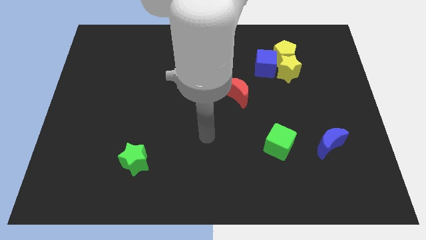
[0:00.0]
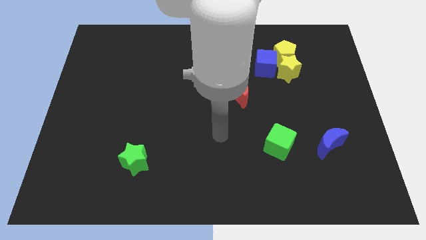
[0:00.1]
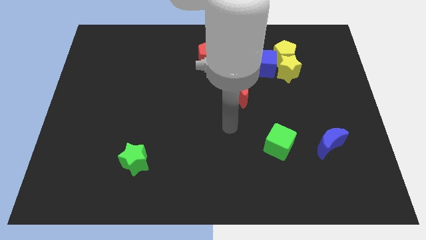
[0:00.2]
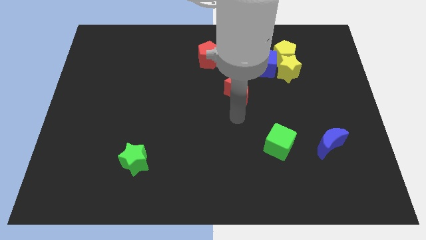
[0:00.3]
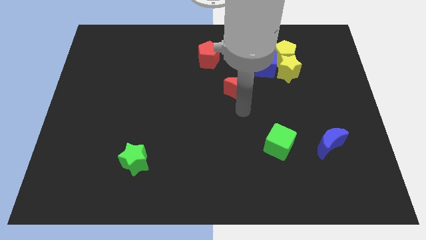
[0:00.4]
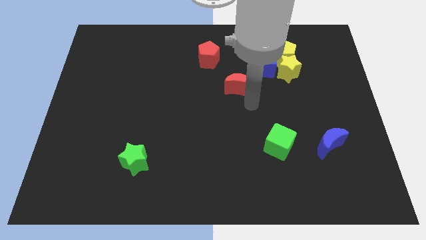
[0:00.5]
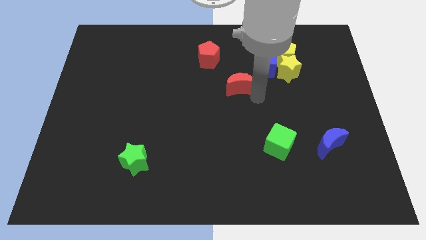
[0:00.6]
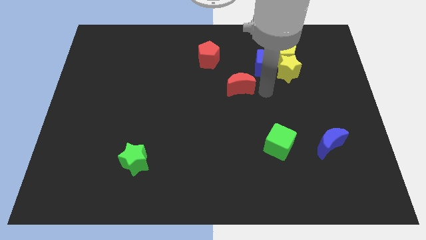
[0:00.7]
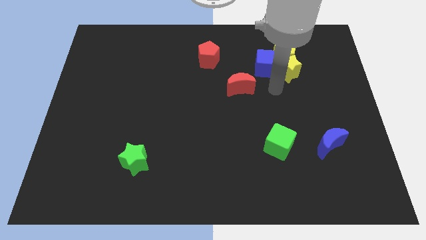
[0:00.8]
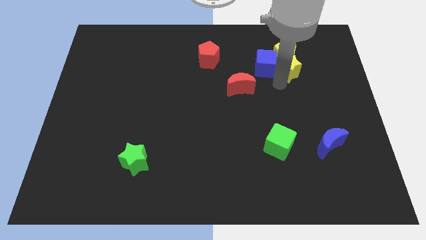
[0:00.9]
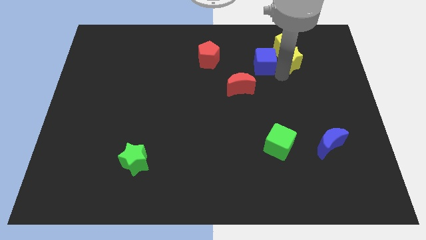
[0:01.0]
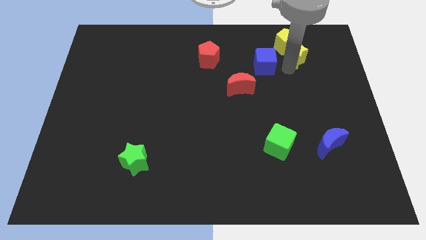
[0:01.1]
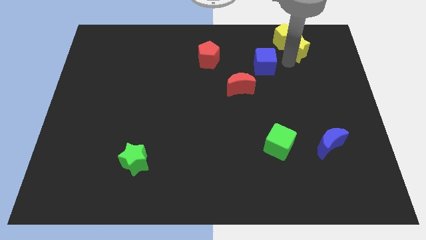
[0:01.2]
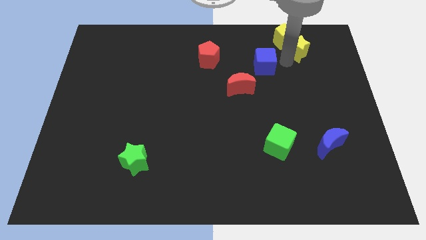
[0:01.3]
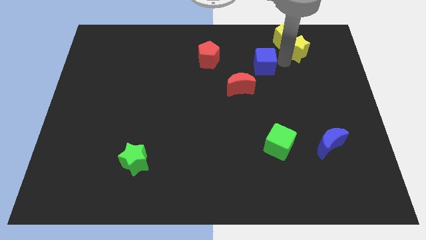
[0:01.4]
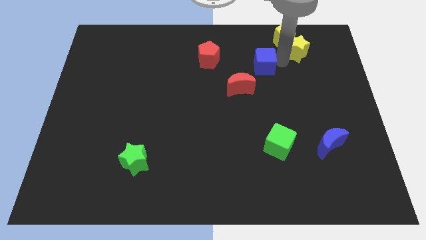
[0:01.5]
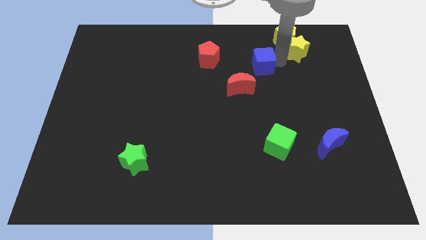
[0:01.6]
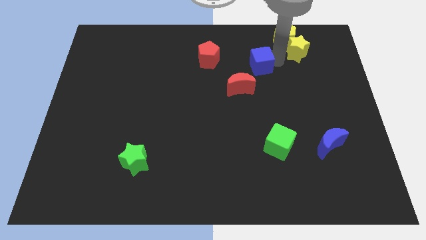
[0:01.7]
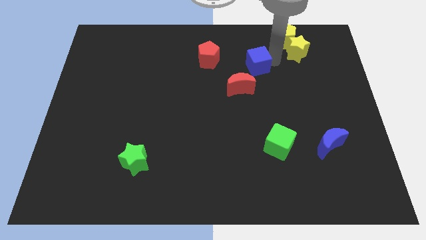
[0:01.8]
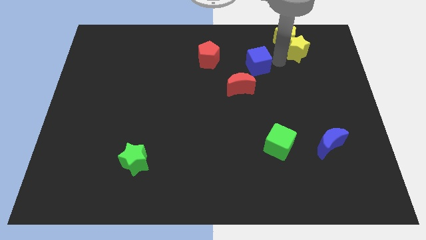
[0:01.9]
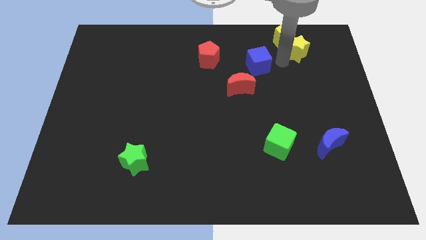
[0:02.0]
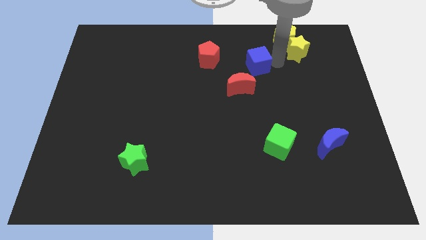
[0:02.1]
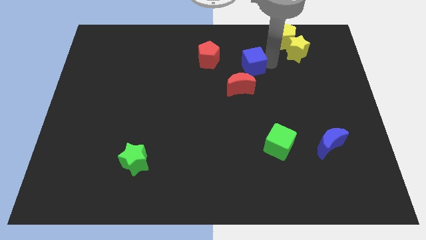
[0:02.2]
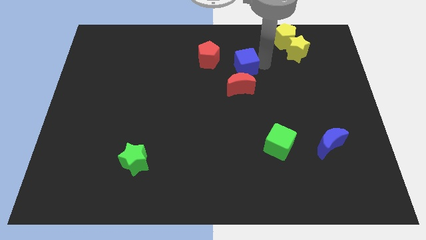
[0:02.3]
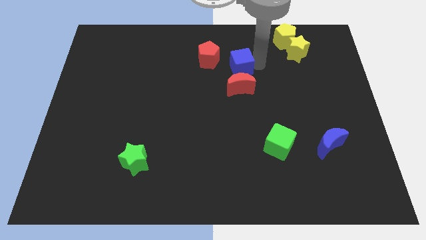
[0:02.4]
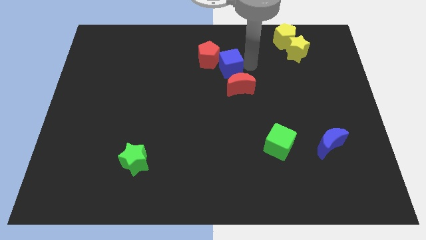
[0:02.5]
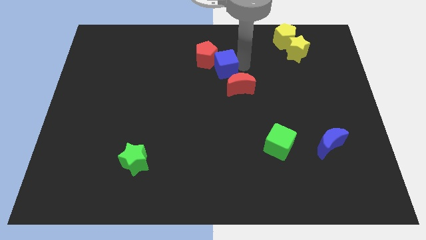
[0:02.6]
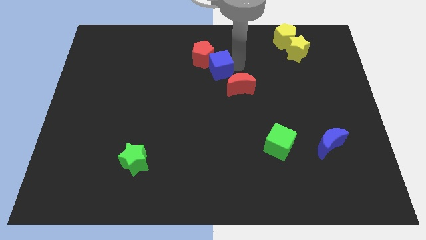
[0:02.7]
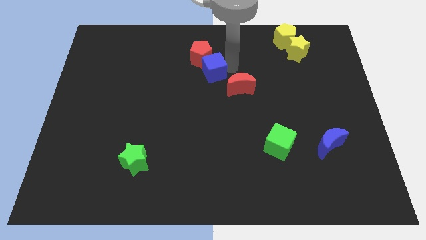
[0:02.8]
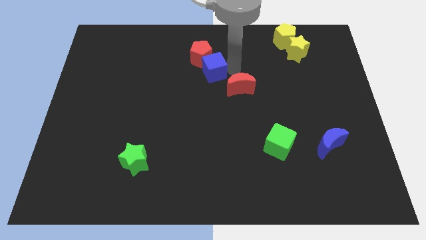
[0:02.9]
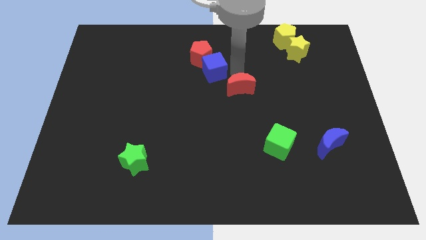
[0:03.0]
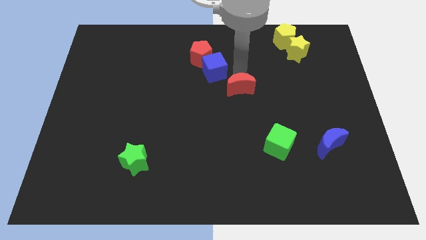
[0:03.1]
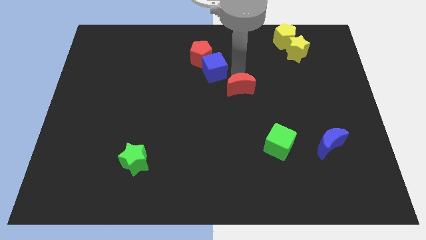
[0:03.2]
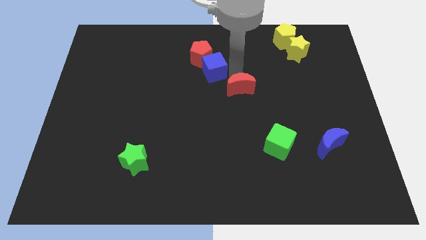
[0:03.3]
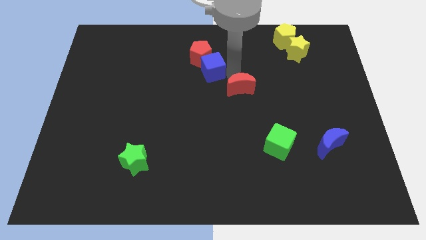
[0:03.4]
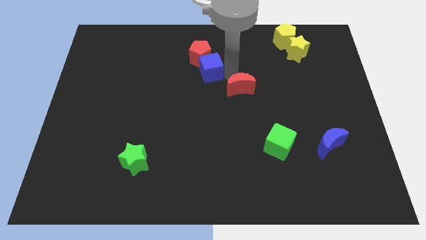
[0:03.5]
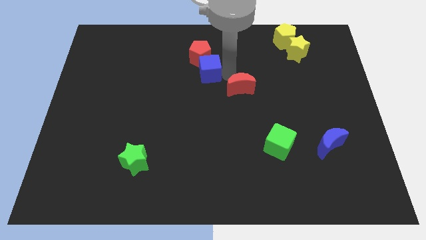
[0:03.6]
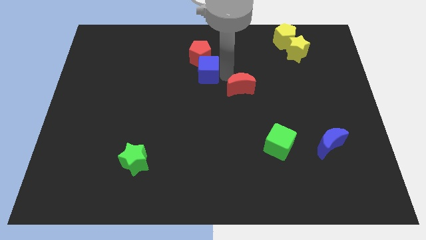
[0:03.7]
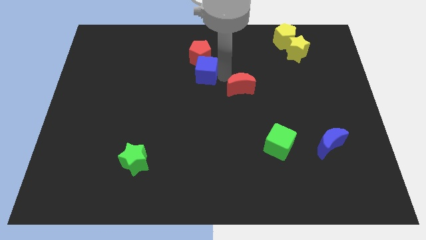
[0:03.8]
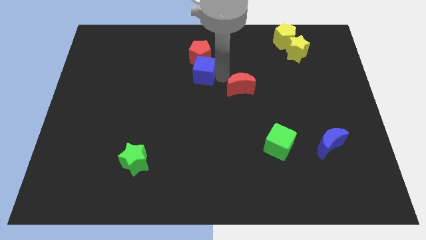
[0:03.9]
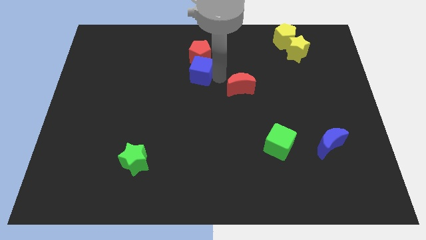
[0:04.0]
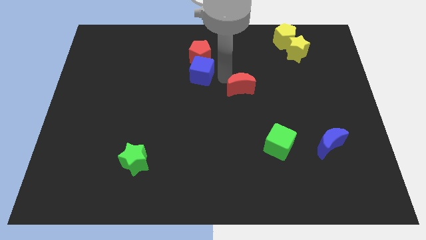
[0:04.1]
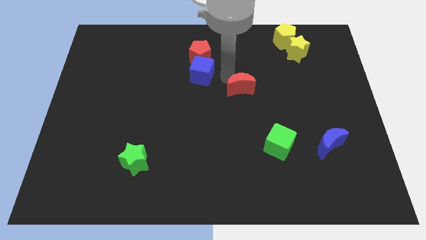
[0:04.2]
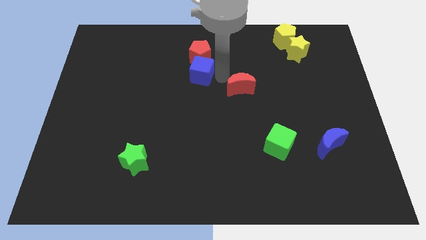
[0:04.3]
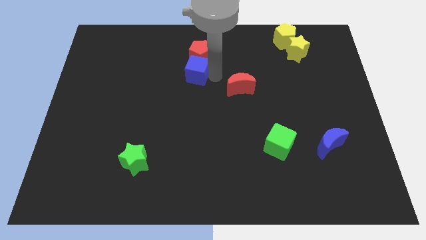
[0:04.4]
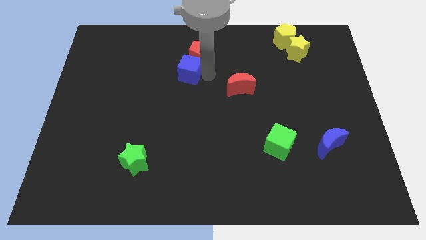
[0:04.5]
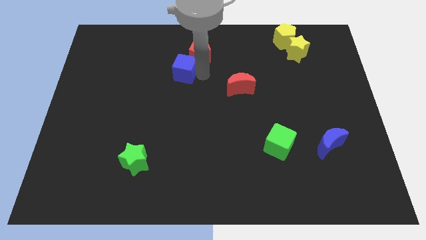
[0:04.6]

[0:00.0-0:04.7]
push the blue cube left

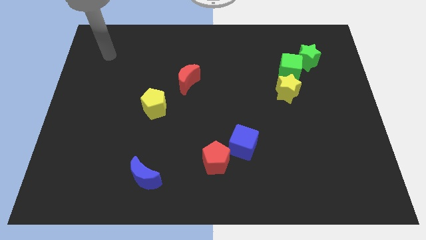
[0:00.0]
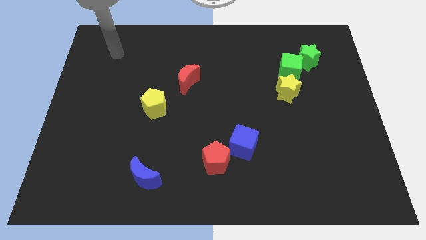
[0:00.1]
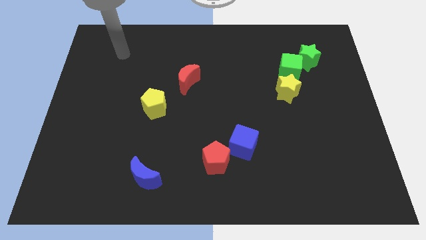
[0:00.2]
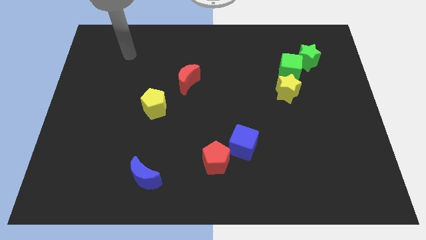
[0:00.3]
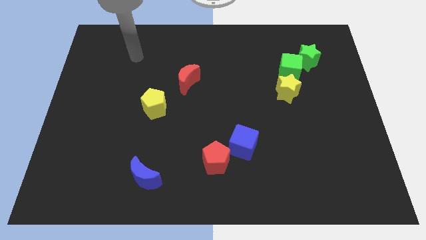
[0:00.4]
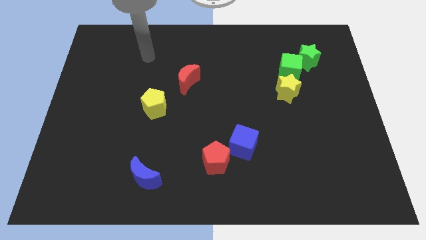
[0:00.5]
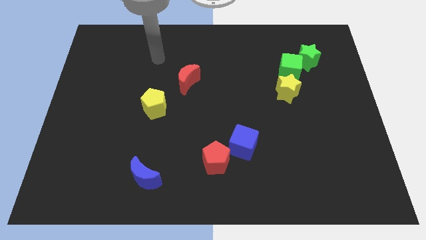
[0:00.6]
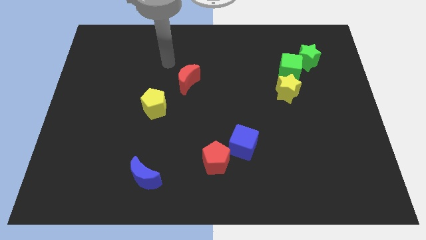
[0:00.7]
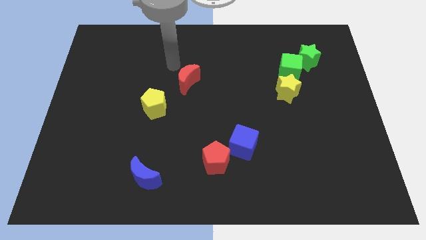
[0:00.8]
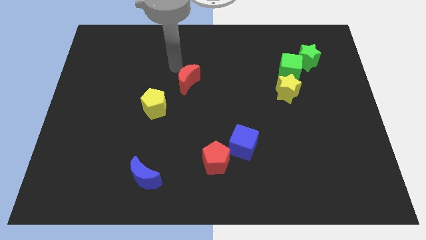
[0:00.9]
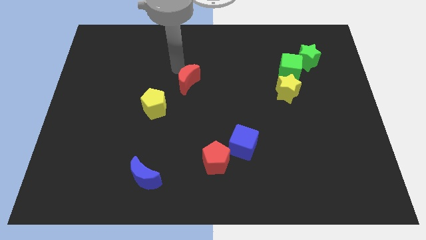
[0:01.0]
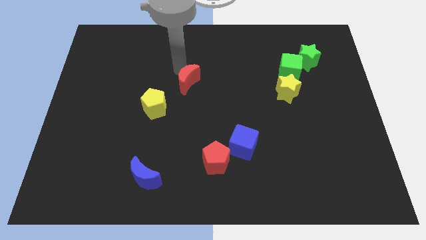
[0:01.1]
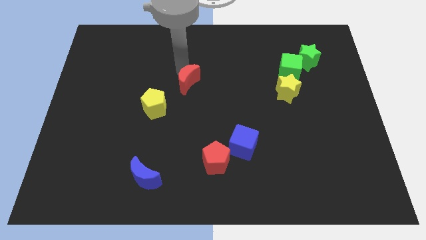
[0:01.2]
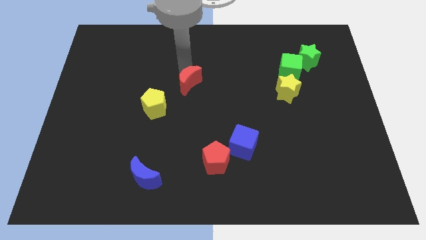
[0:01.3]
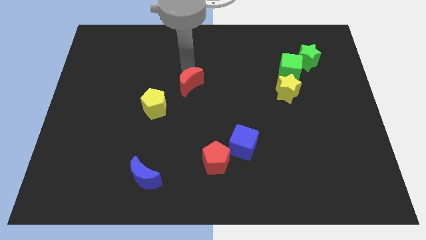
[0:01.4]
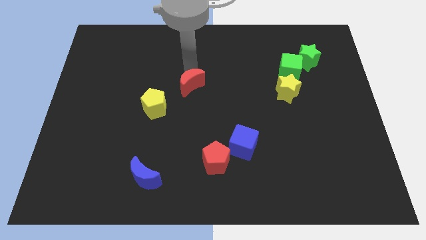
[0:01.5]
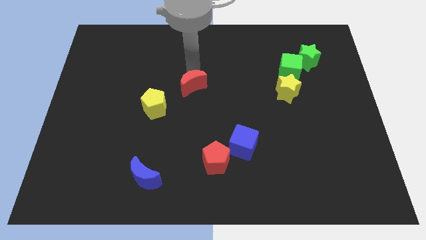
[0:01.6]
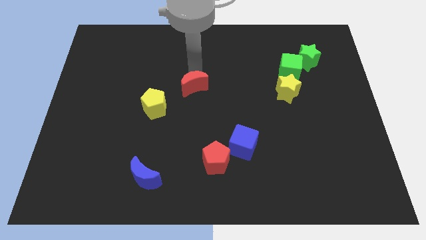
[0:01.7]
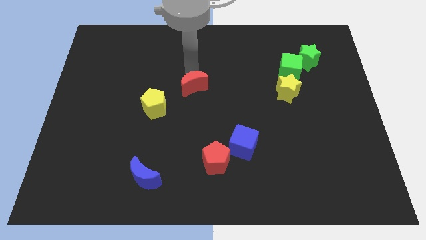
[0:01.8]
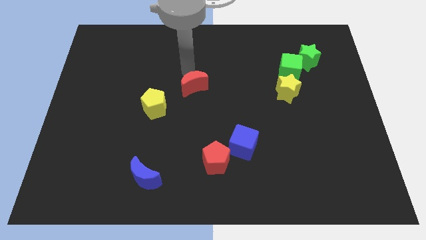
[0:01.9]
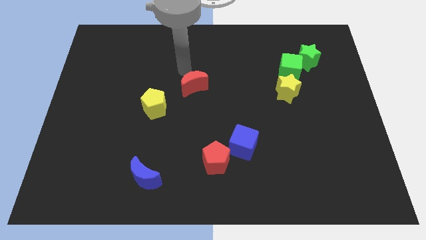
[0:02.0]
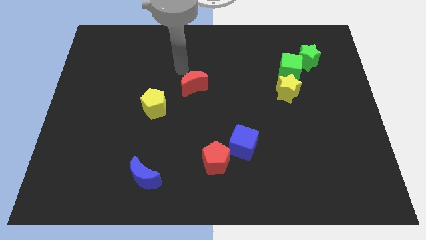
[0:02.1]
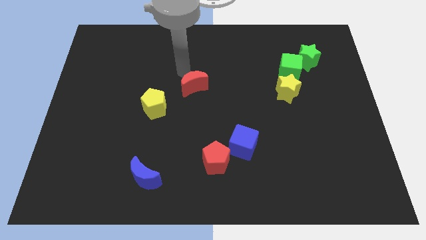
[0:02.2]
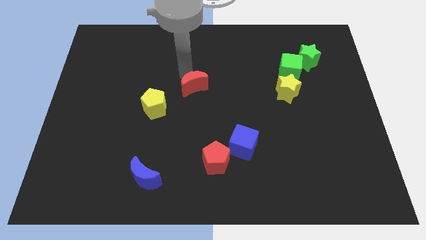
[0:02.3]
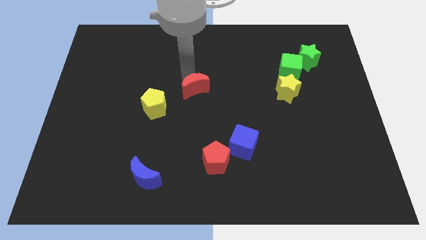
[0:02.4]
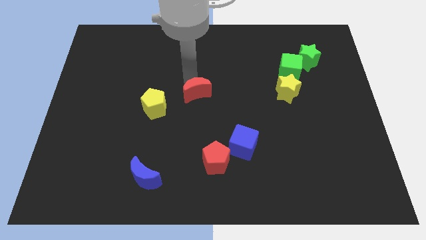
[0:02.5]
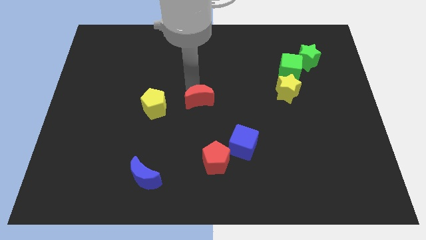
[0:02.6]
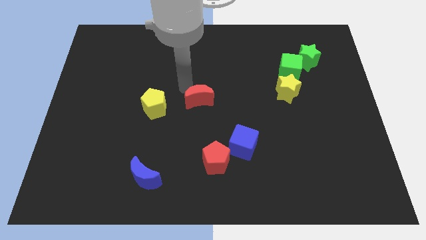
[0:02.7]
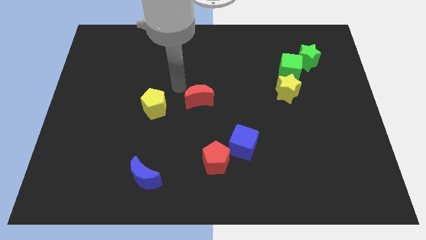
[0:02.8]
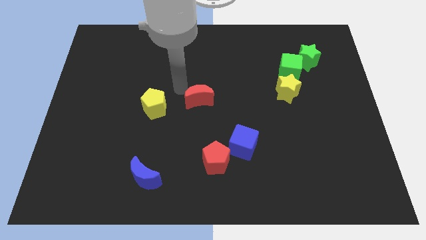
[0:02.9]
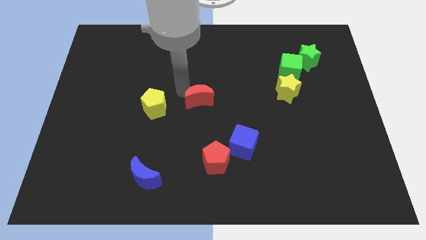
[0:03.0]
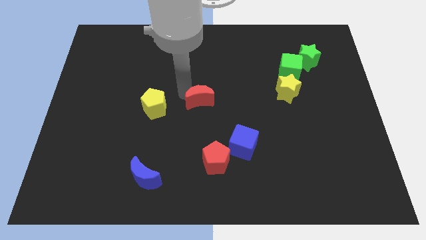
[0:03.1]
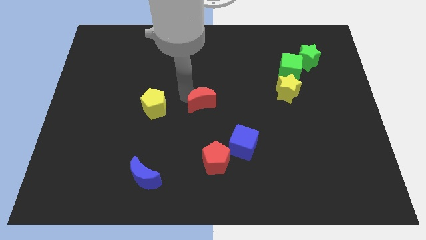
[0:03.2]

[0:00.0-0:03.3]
slightly move the red moon down and to the right
